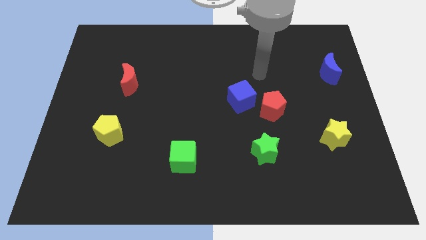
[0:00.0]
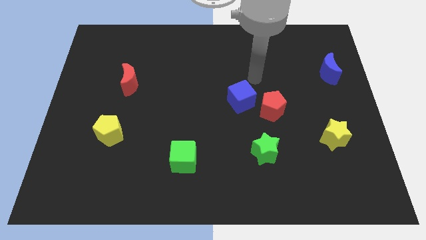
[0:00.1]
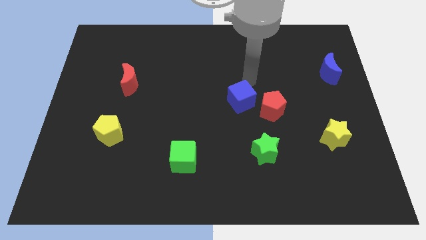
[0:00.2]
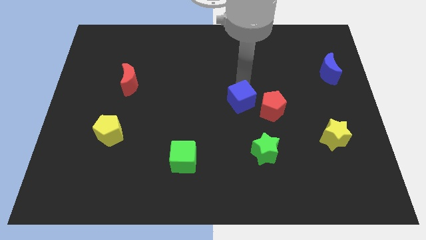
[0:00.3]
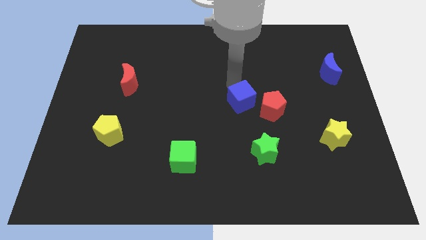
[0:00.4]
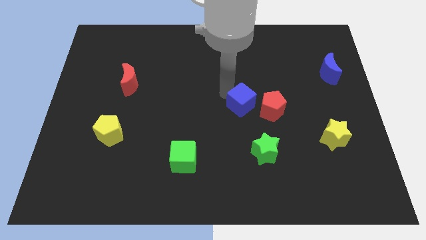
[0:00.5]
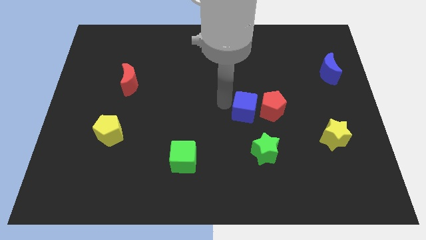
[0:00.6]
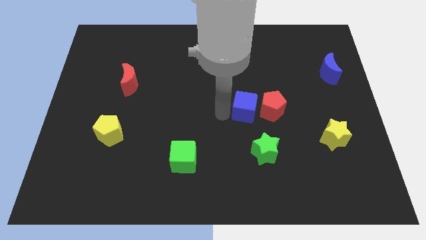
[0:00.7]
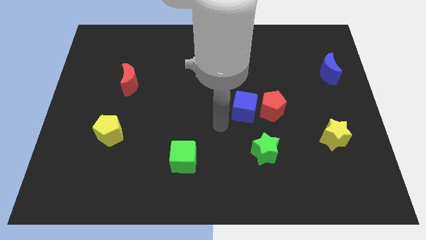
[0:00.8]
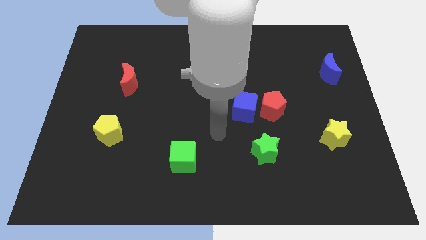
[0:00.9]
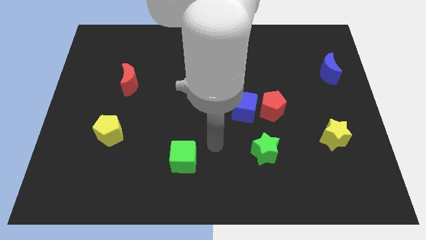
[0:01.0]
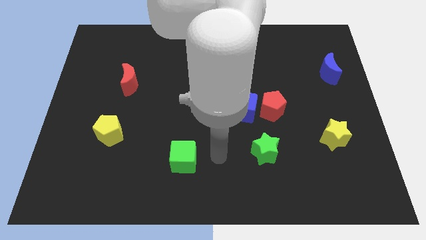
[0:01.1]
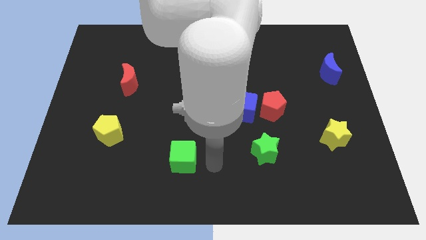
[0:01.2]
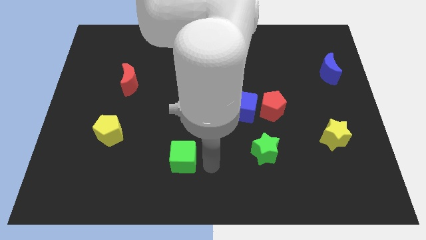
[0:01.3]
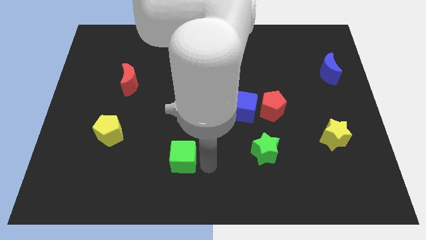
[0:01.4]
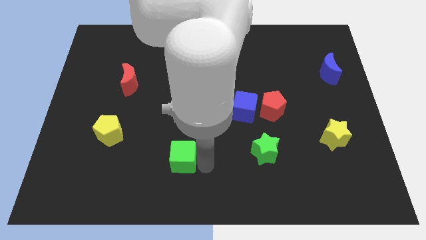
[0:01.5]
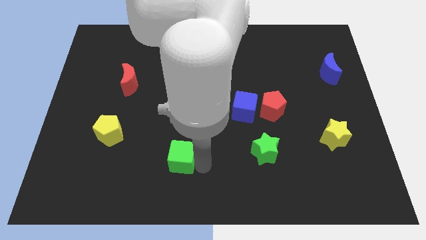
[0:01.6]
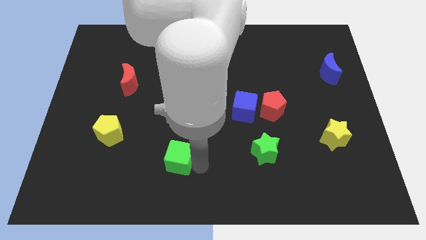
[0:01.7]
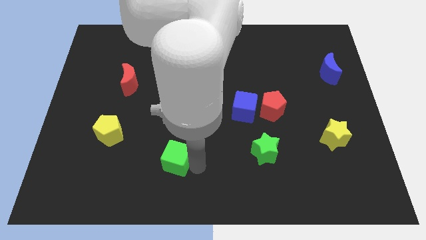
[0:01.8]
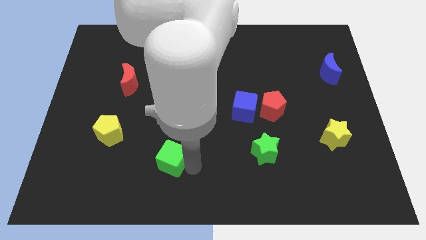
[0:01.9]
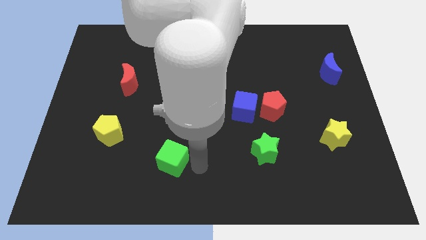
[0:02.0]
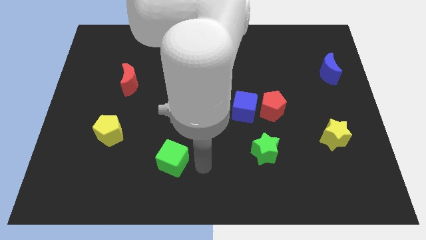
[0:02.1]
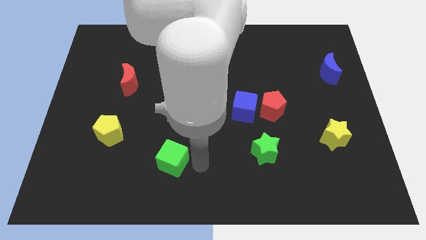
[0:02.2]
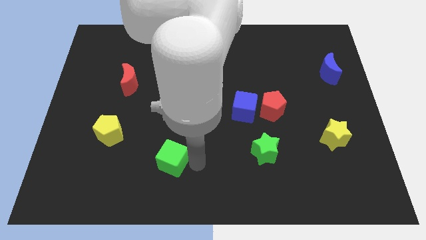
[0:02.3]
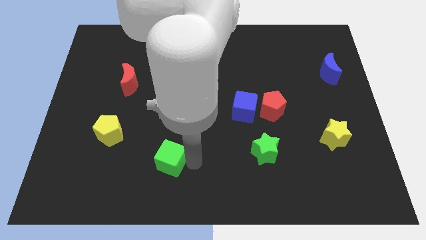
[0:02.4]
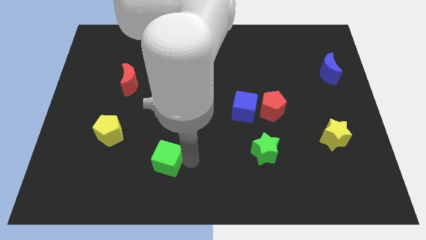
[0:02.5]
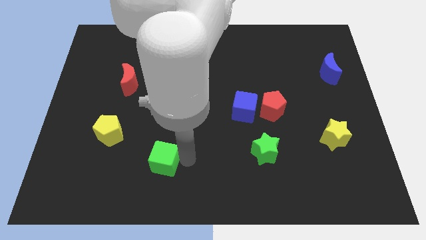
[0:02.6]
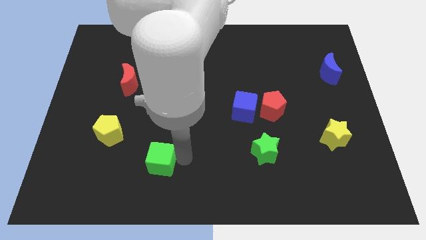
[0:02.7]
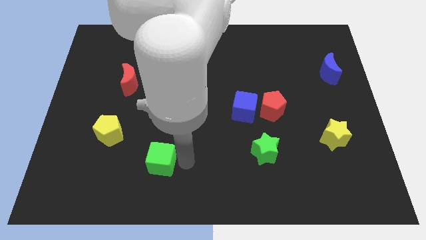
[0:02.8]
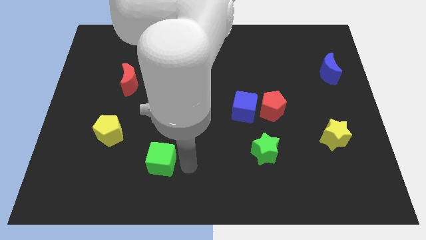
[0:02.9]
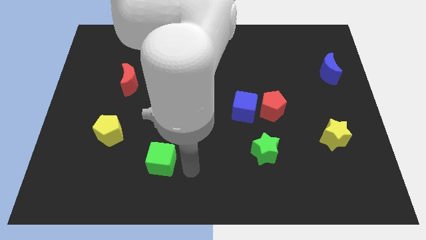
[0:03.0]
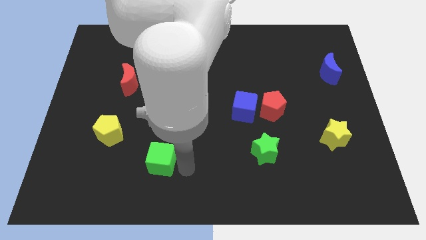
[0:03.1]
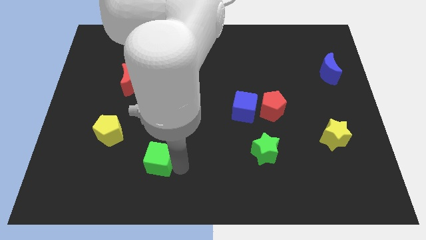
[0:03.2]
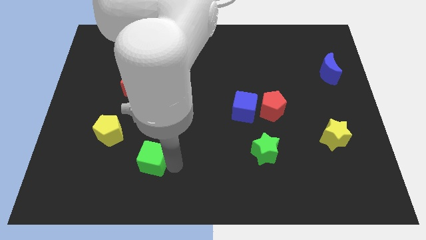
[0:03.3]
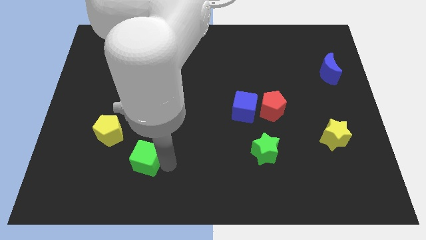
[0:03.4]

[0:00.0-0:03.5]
slide the green cube somewhat left

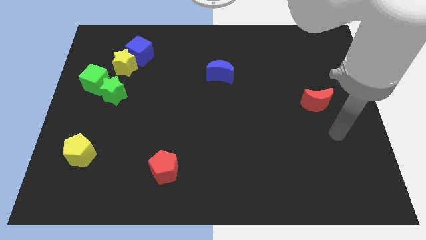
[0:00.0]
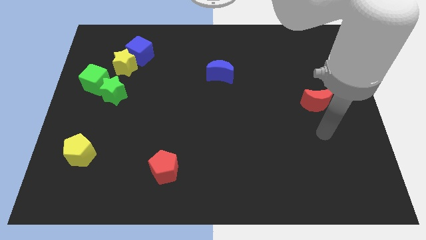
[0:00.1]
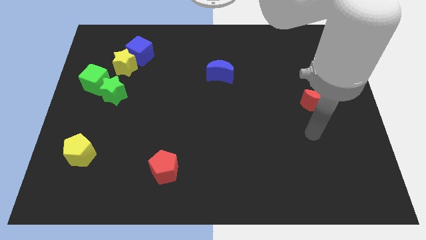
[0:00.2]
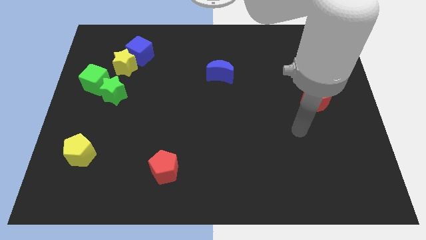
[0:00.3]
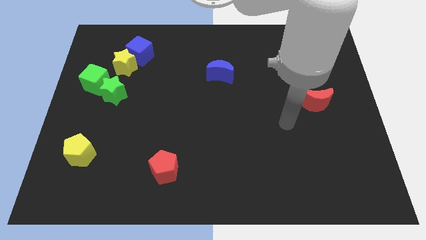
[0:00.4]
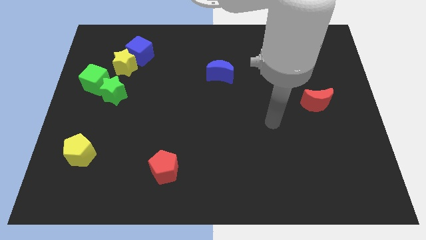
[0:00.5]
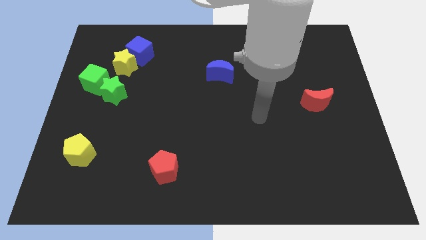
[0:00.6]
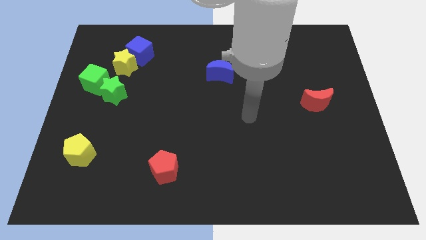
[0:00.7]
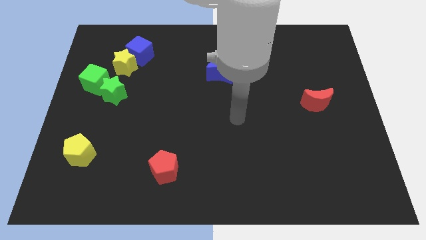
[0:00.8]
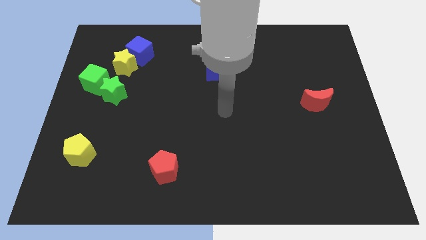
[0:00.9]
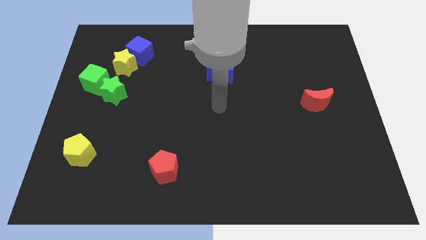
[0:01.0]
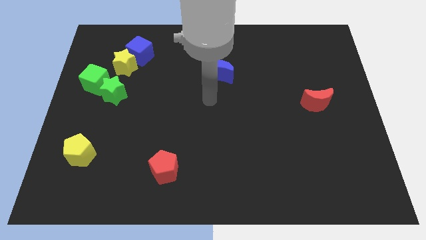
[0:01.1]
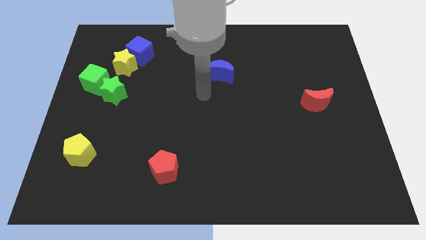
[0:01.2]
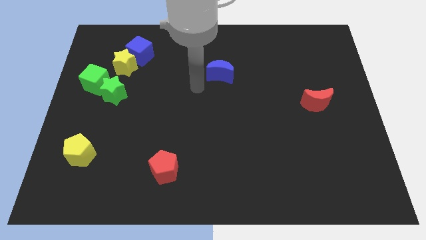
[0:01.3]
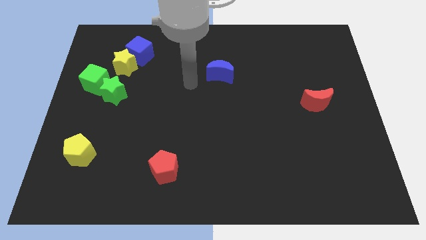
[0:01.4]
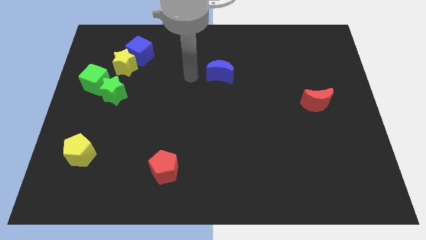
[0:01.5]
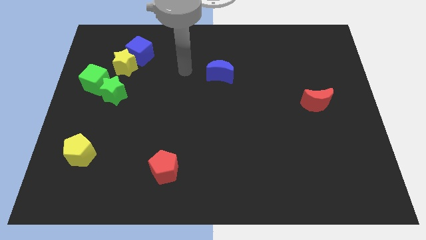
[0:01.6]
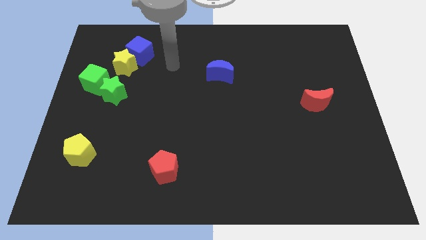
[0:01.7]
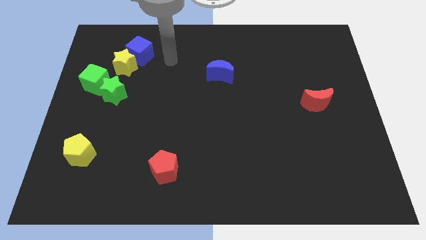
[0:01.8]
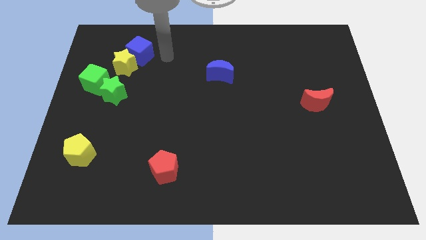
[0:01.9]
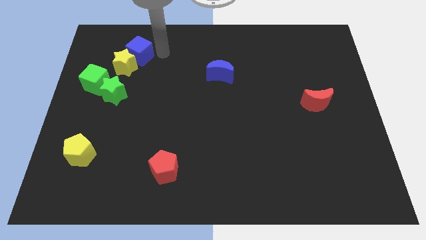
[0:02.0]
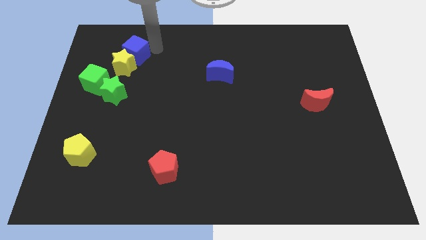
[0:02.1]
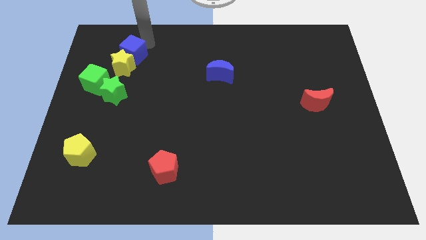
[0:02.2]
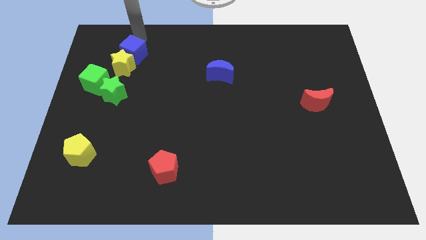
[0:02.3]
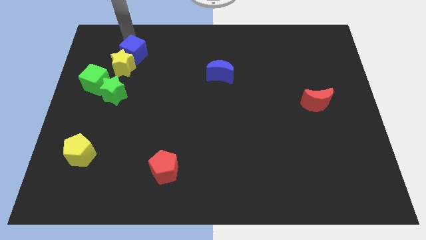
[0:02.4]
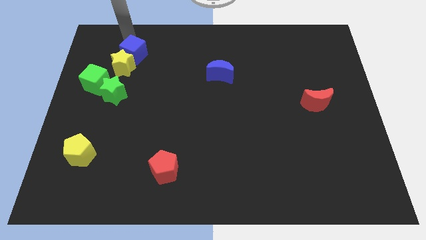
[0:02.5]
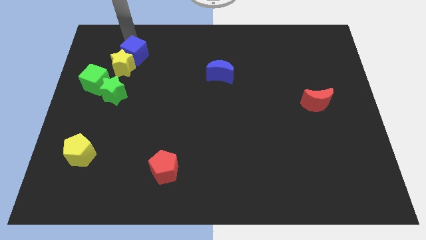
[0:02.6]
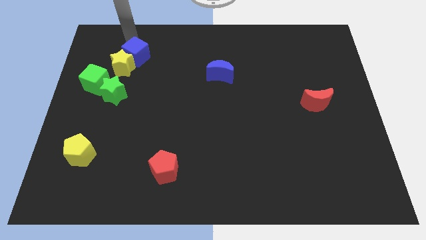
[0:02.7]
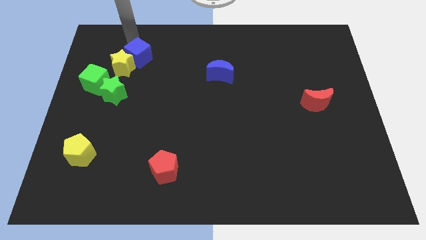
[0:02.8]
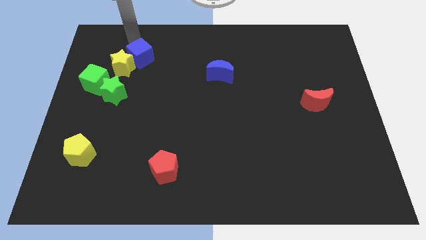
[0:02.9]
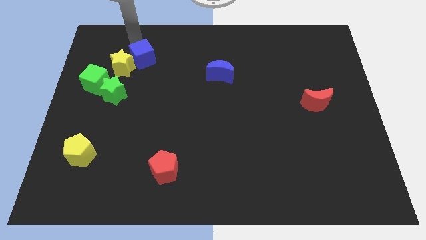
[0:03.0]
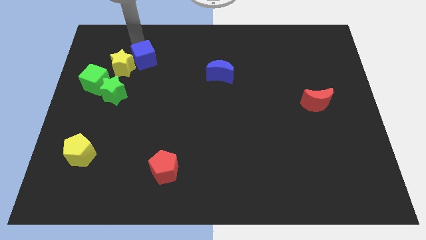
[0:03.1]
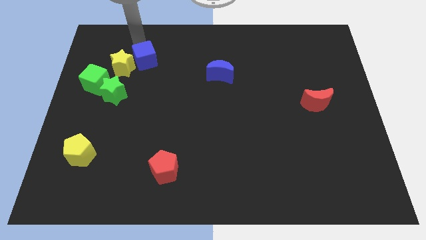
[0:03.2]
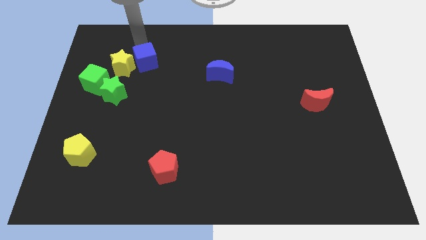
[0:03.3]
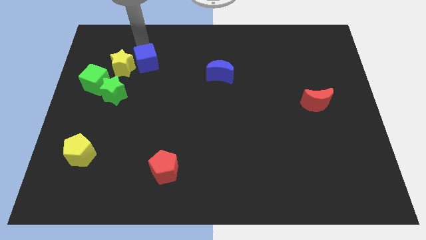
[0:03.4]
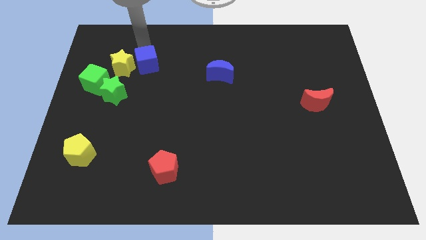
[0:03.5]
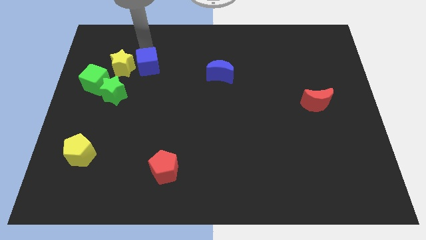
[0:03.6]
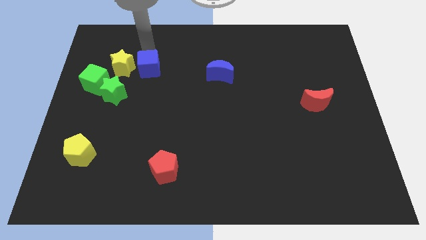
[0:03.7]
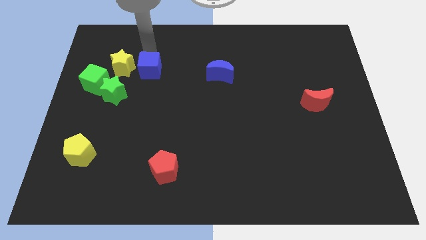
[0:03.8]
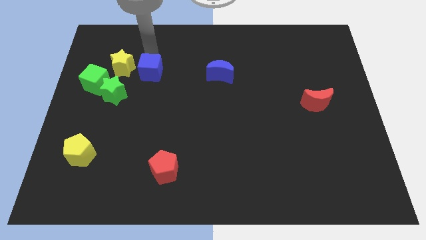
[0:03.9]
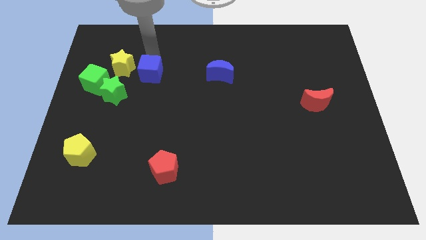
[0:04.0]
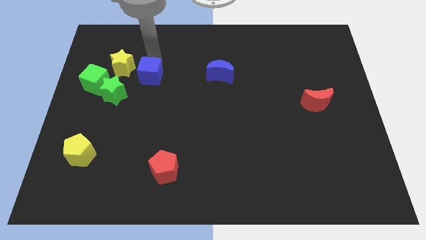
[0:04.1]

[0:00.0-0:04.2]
slightly slide the blue cube down
